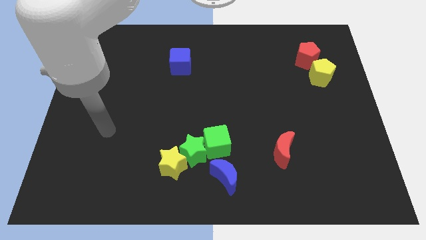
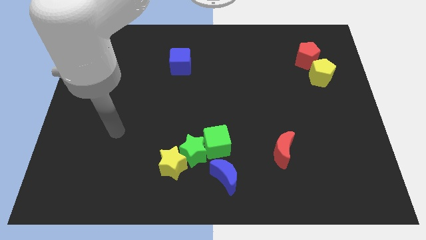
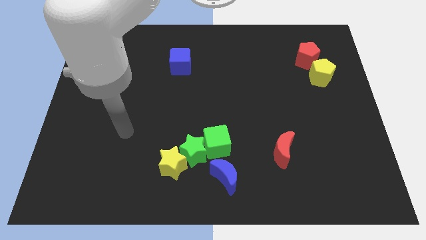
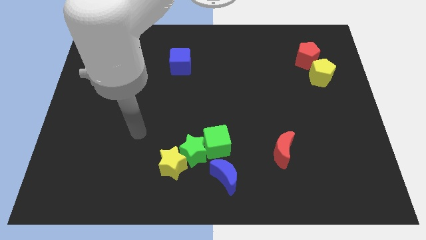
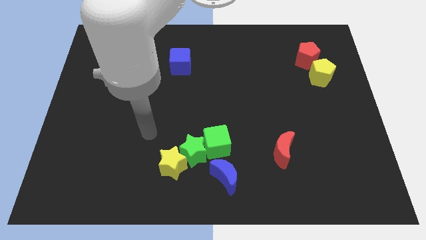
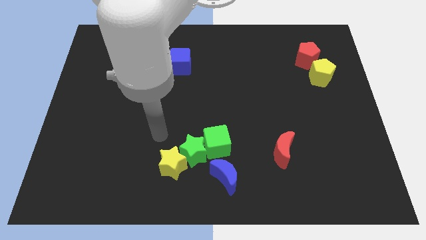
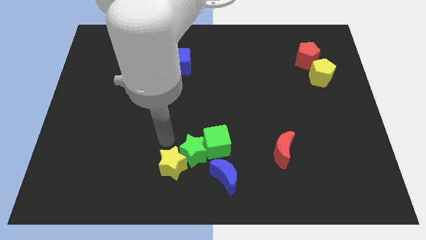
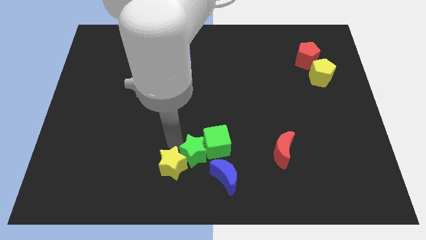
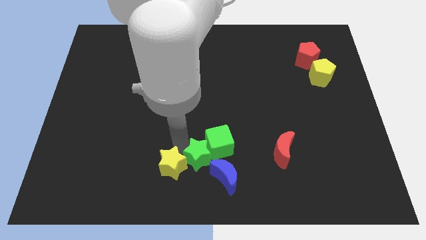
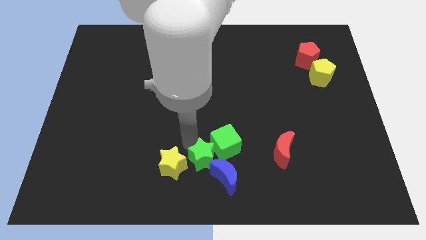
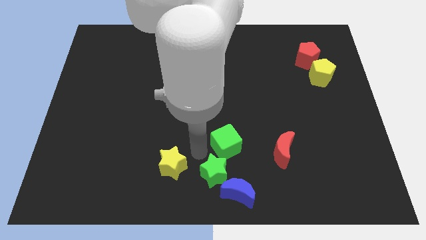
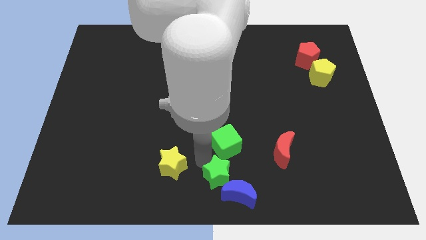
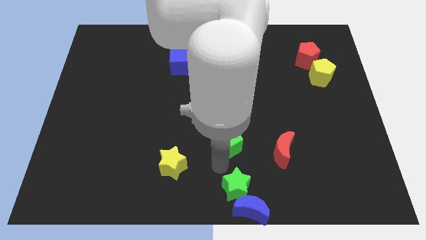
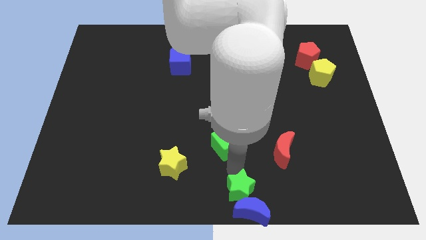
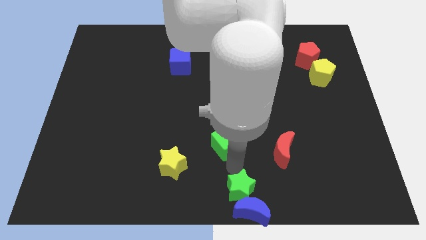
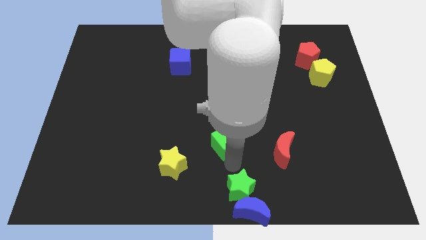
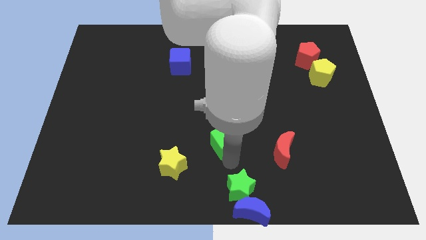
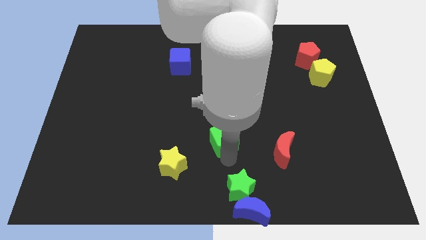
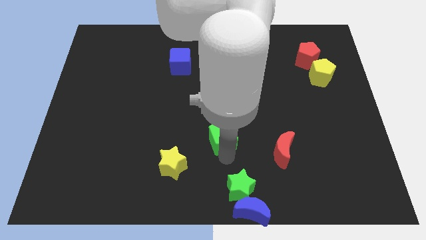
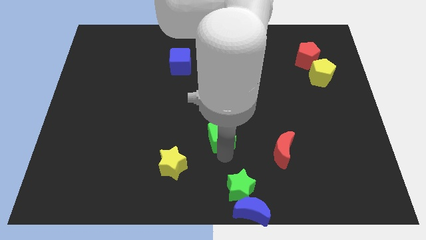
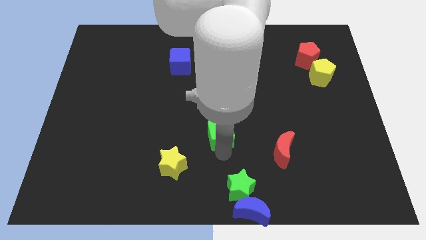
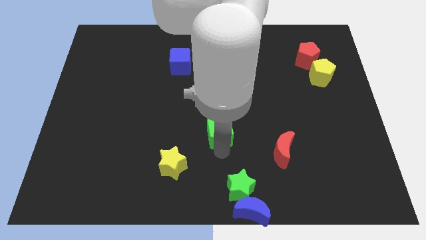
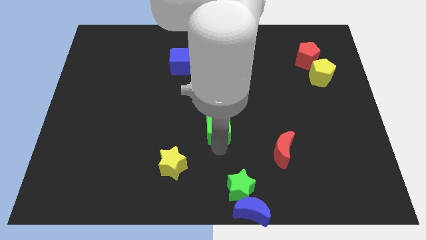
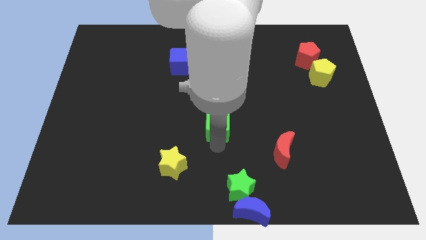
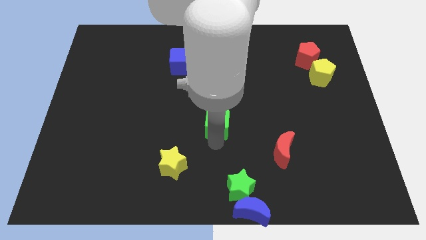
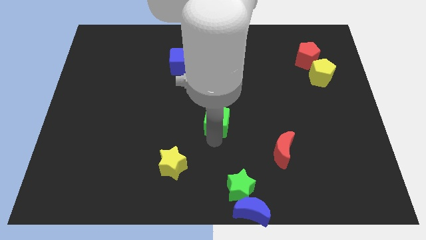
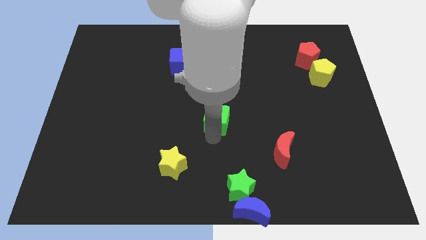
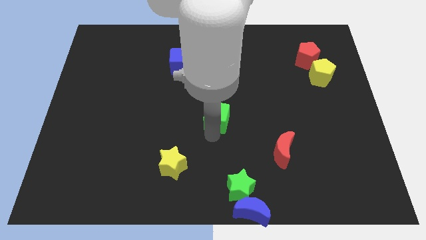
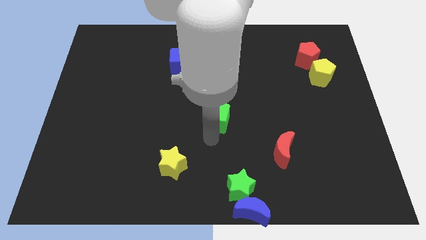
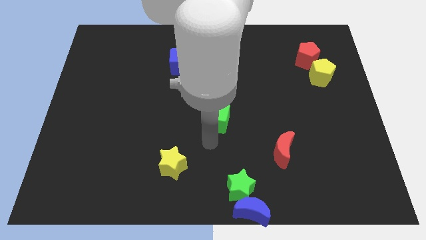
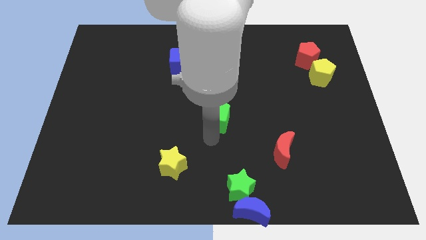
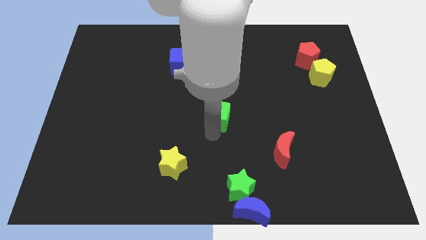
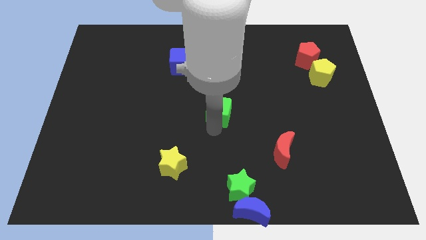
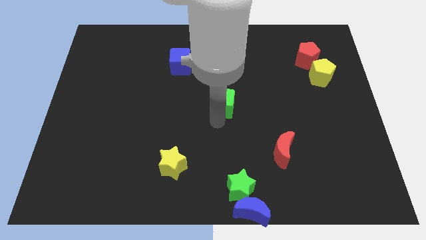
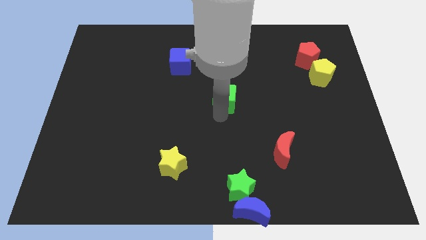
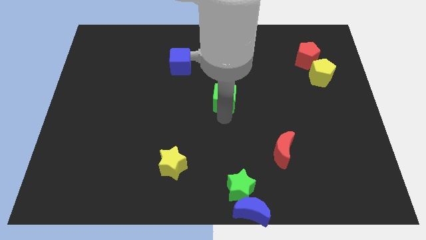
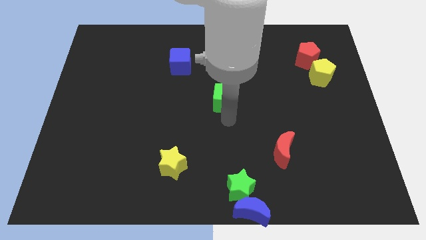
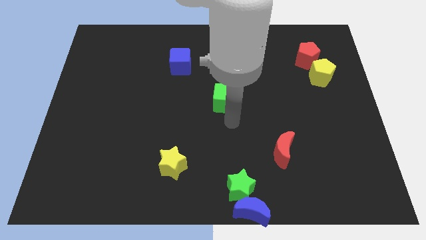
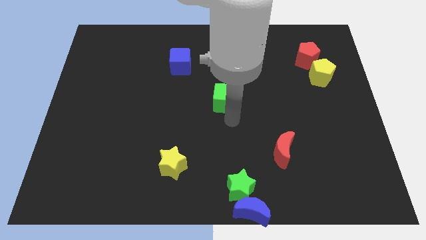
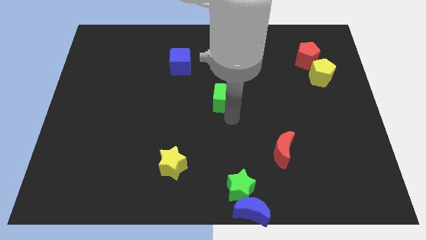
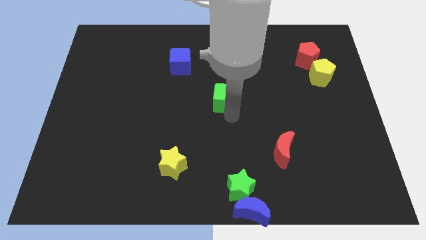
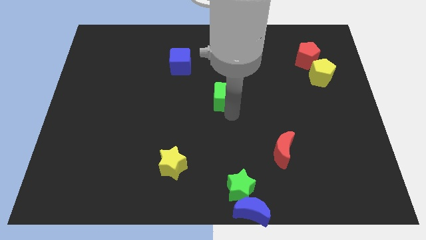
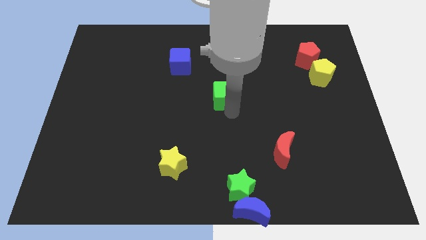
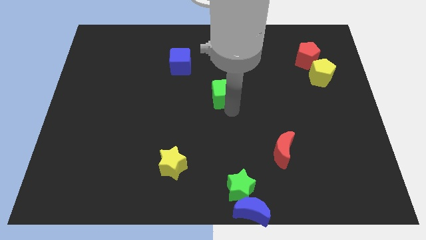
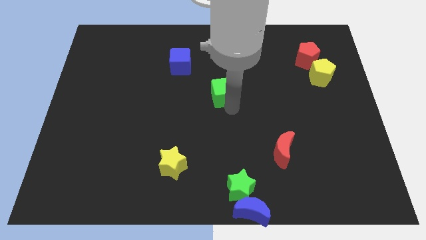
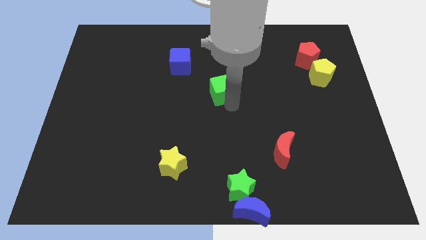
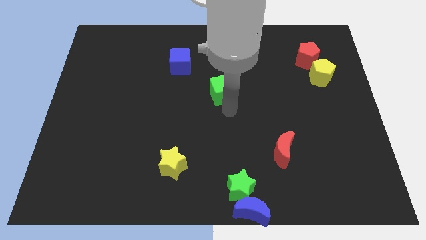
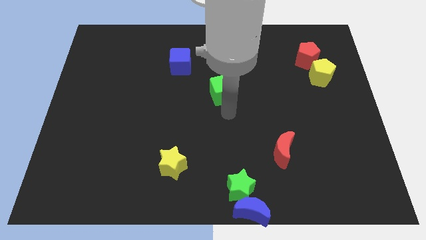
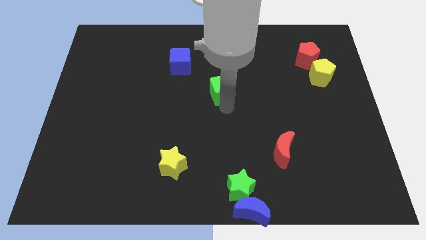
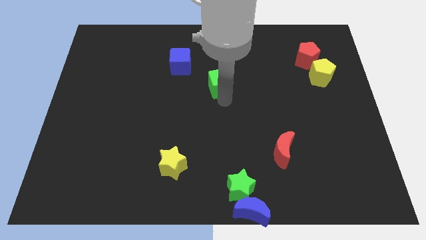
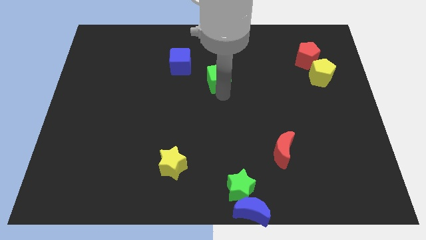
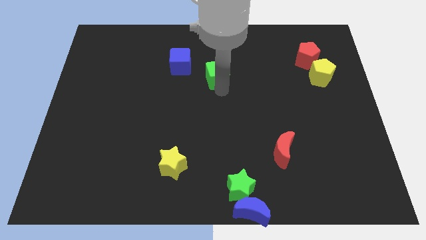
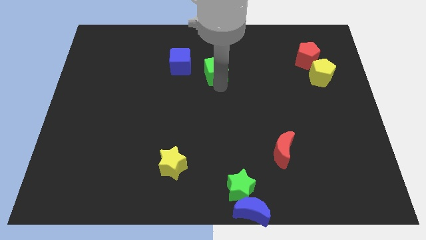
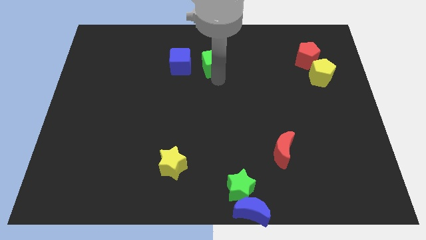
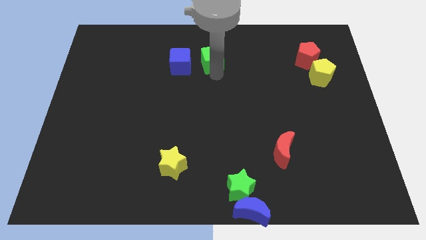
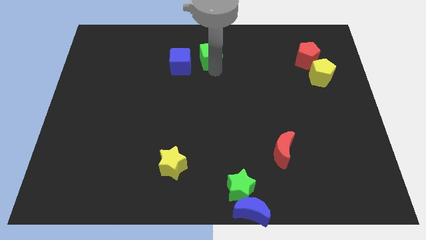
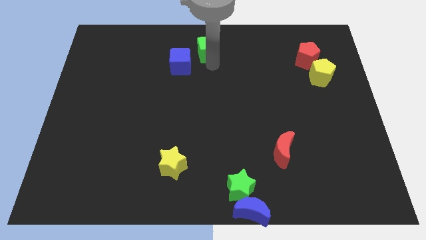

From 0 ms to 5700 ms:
push the green cube to the top side

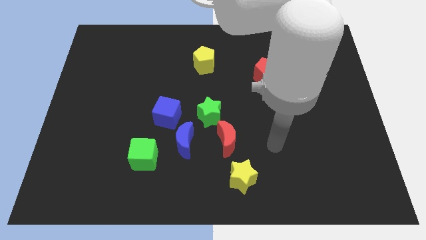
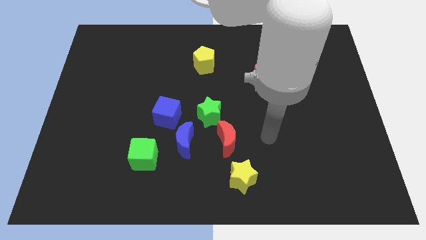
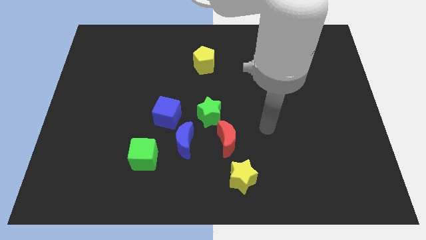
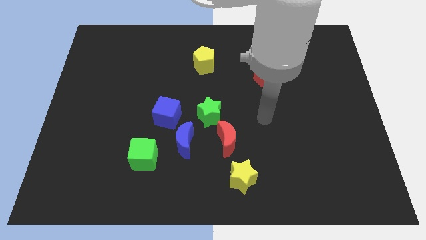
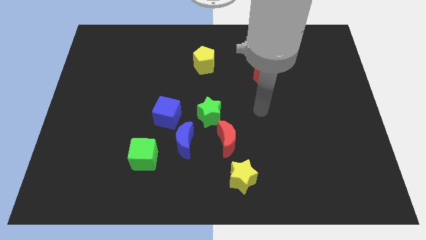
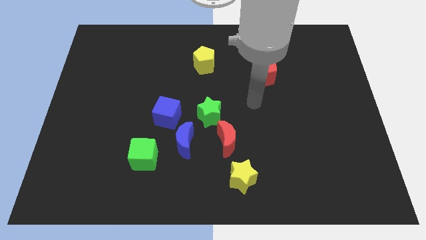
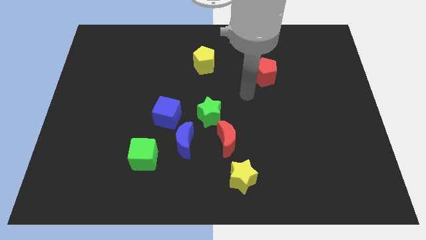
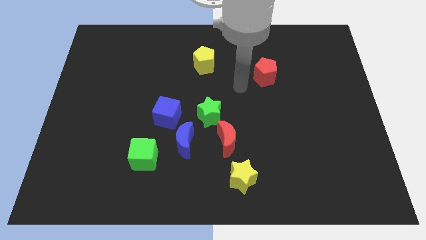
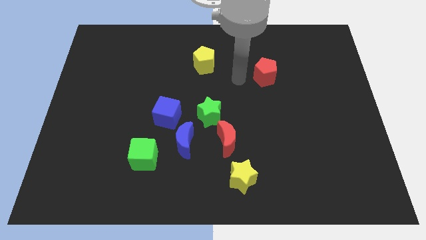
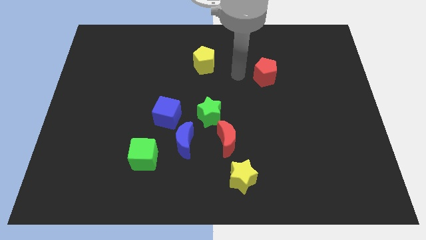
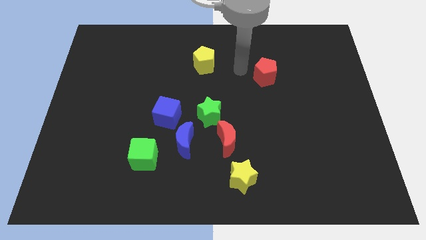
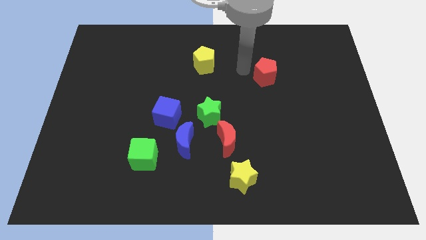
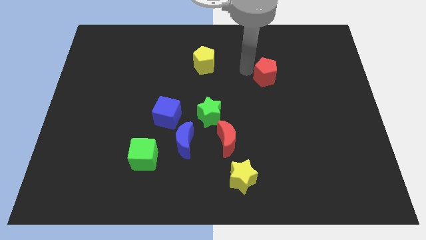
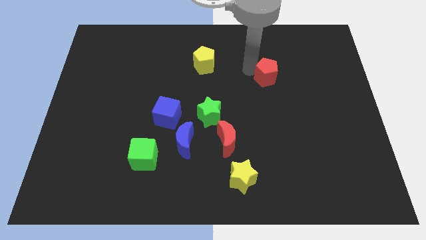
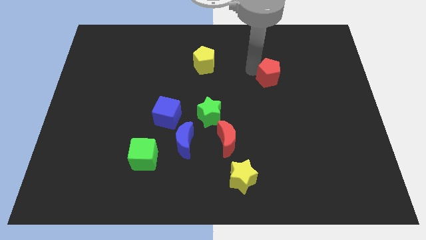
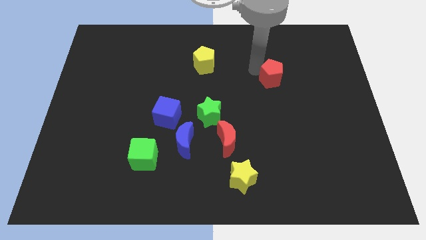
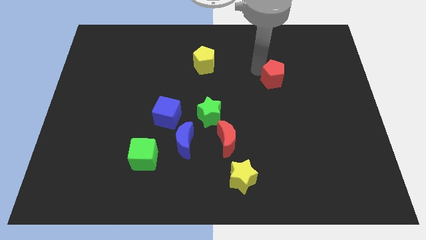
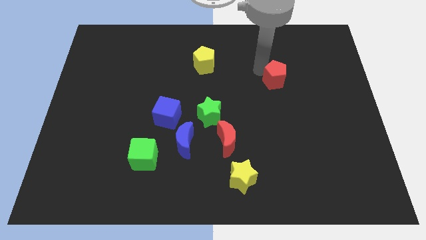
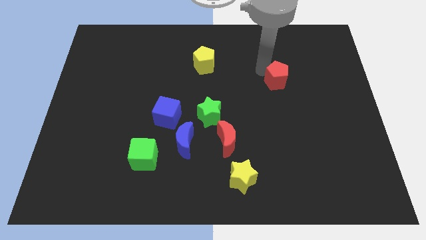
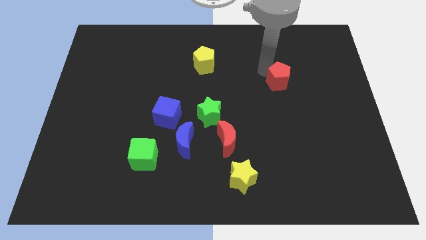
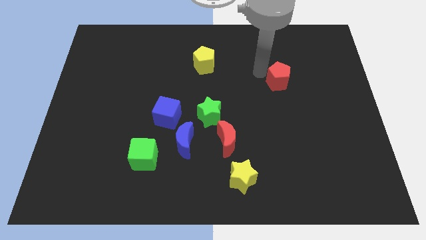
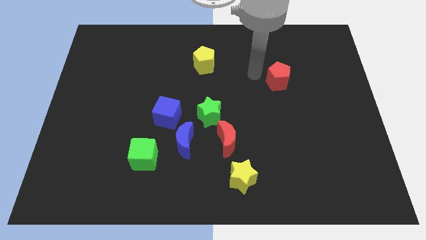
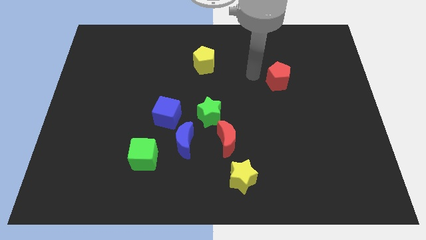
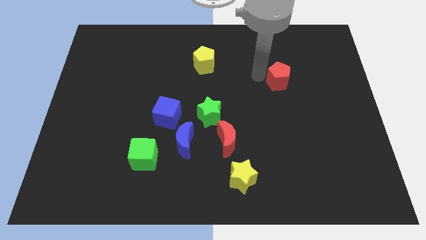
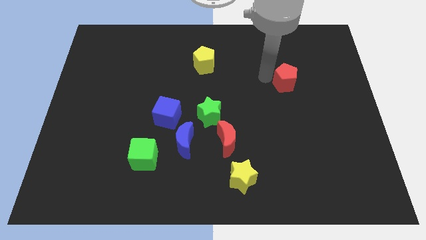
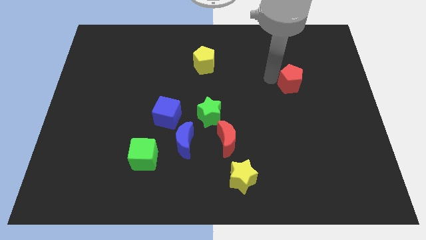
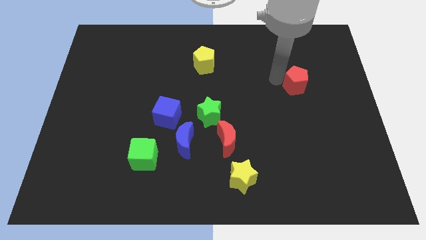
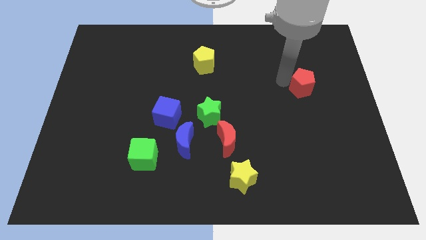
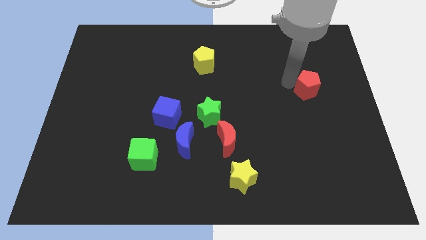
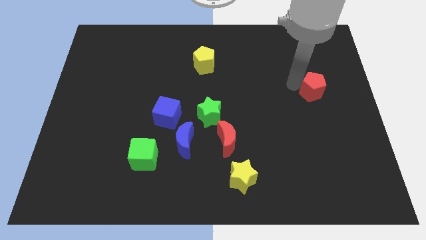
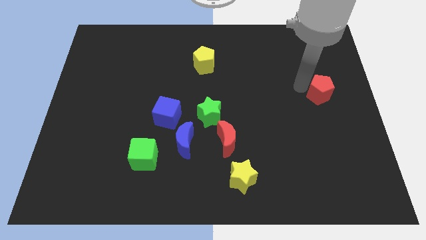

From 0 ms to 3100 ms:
slide the red pentagon to the center right
